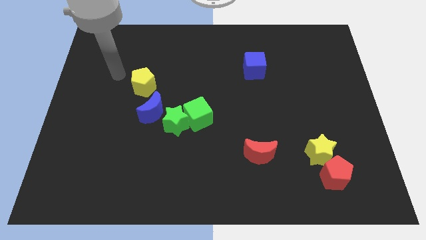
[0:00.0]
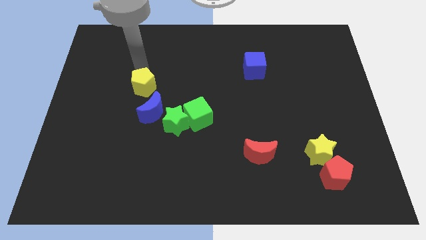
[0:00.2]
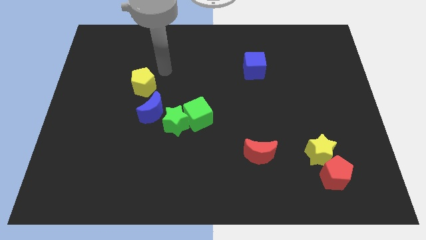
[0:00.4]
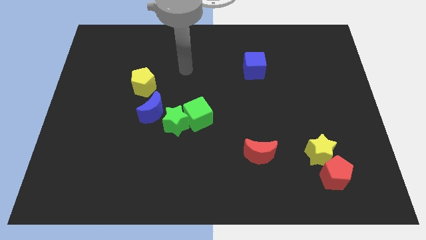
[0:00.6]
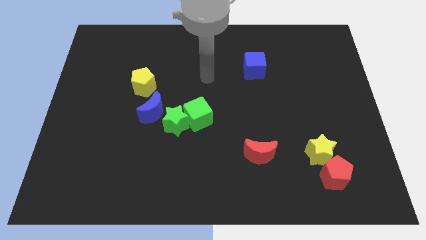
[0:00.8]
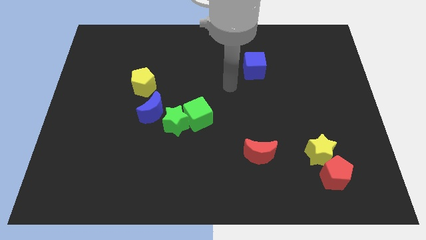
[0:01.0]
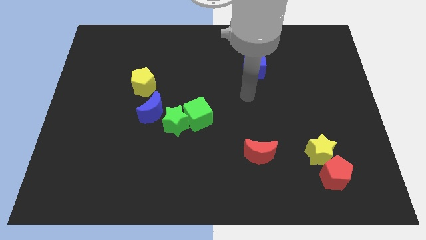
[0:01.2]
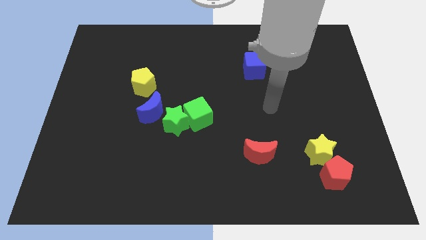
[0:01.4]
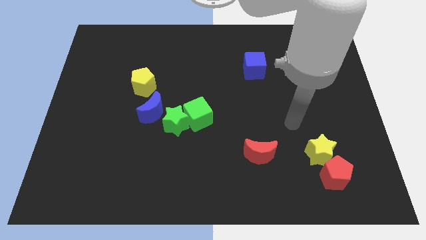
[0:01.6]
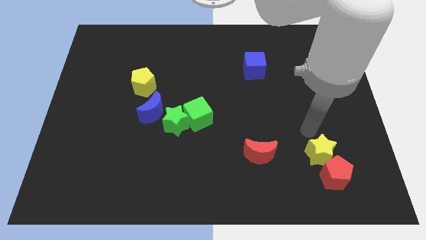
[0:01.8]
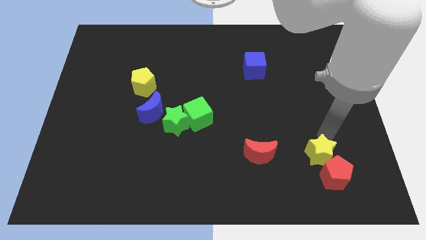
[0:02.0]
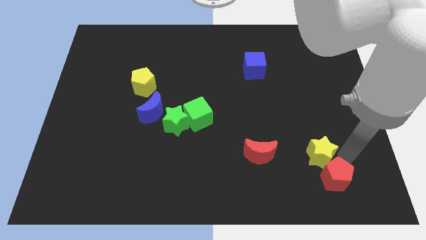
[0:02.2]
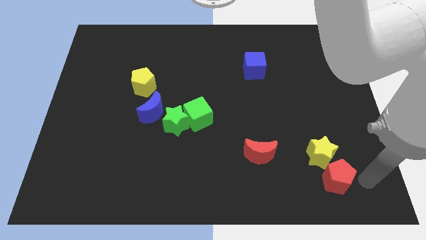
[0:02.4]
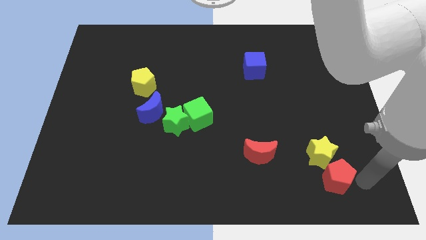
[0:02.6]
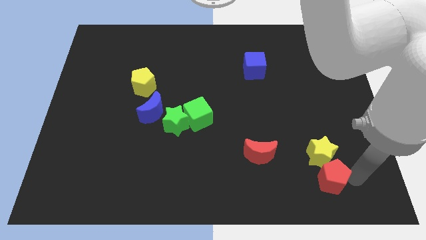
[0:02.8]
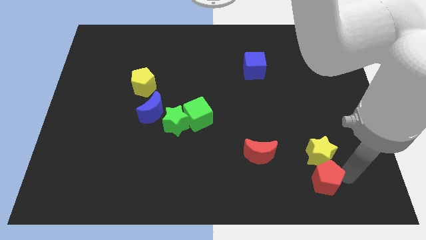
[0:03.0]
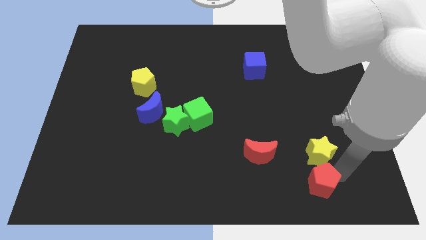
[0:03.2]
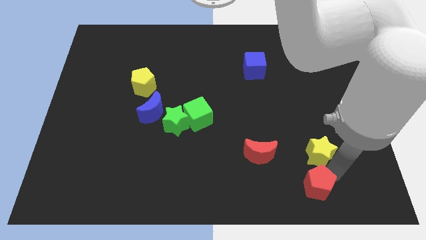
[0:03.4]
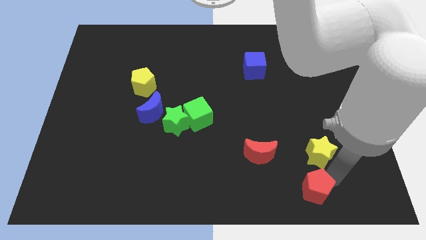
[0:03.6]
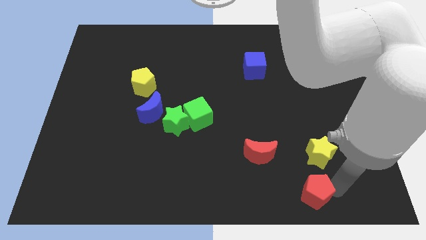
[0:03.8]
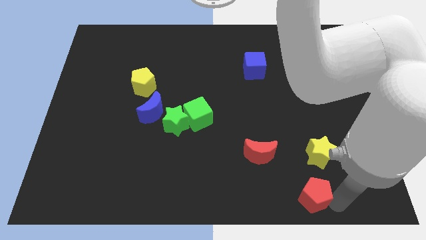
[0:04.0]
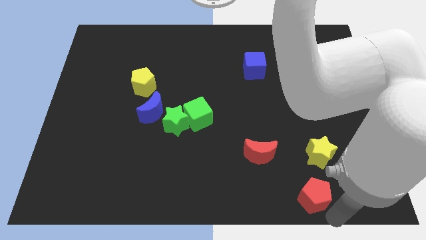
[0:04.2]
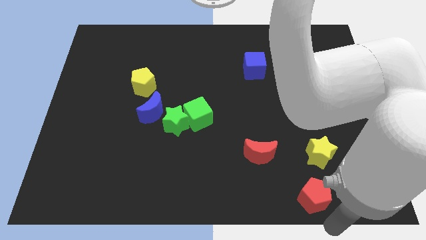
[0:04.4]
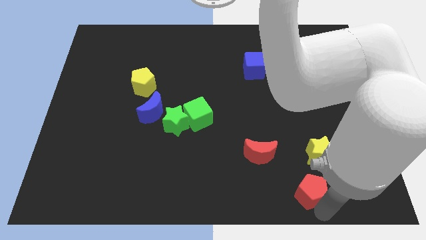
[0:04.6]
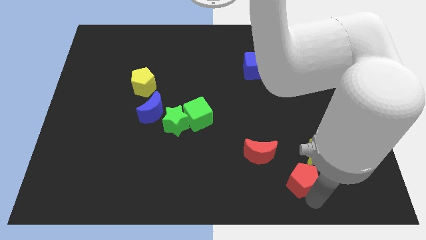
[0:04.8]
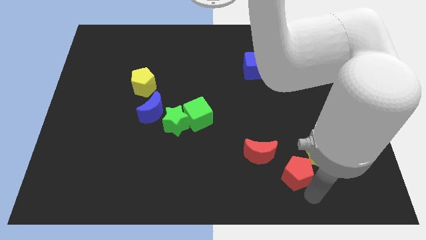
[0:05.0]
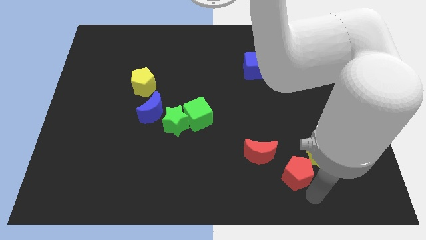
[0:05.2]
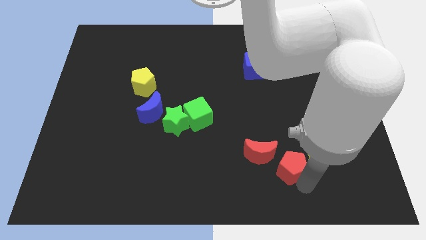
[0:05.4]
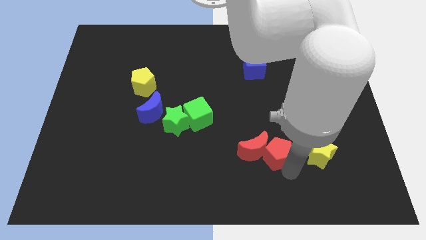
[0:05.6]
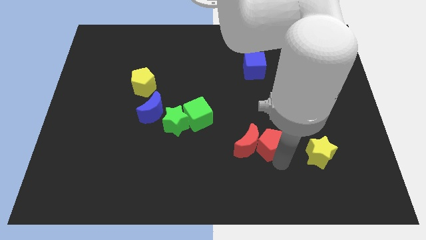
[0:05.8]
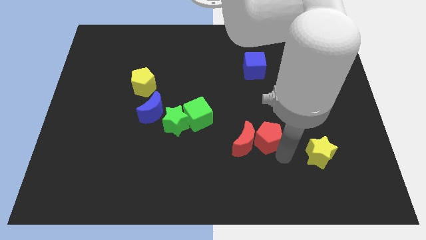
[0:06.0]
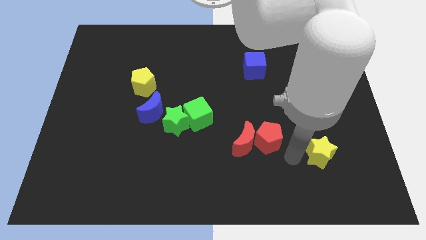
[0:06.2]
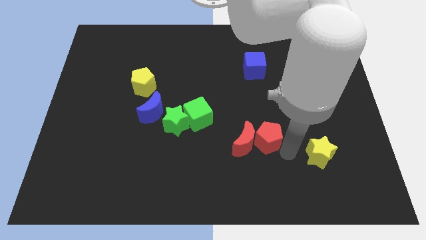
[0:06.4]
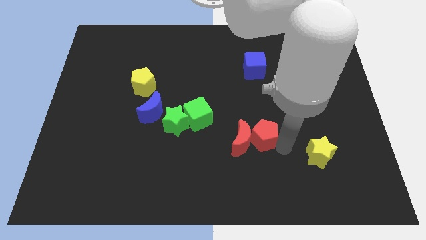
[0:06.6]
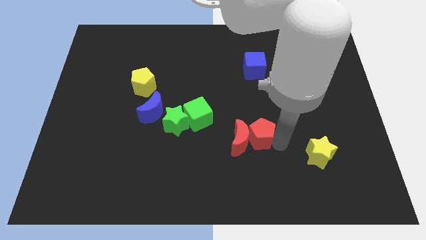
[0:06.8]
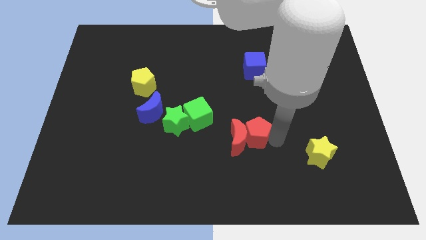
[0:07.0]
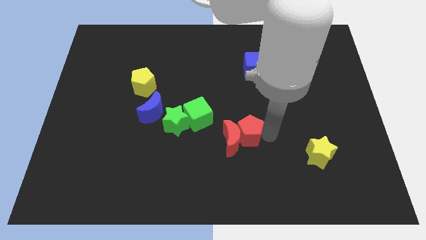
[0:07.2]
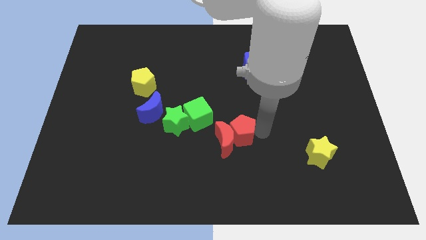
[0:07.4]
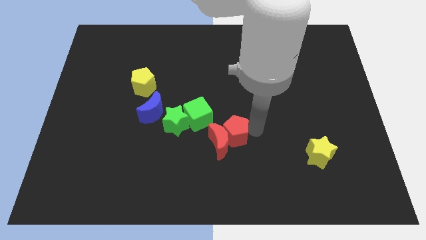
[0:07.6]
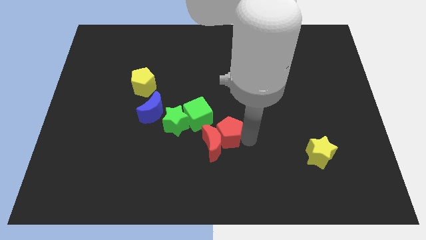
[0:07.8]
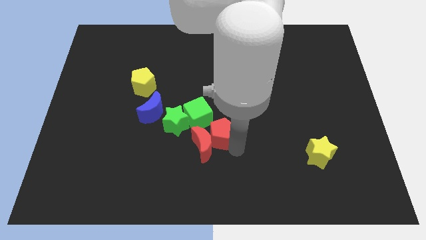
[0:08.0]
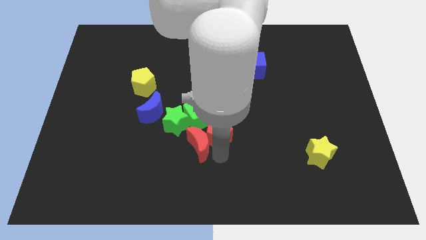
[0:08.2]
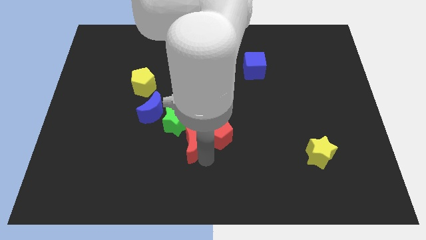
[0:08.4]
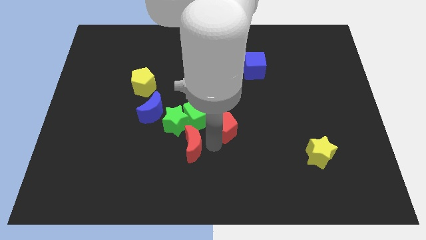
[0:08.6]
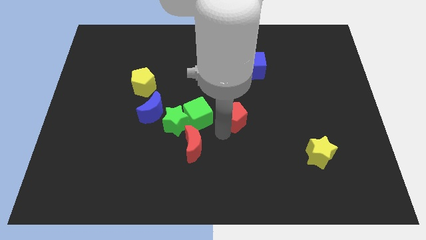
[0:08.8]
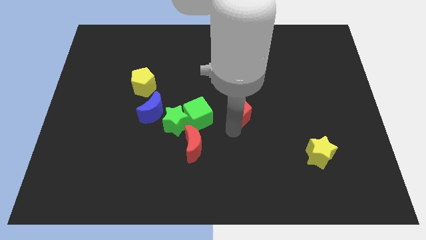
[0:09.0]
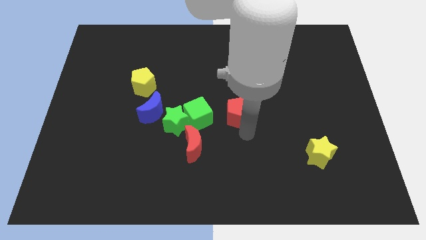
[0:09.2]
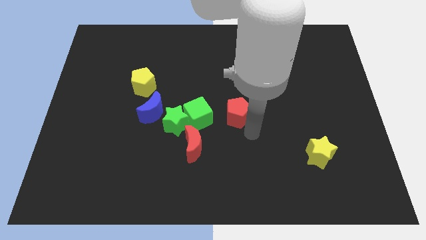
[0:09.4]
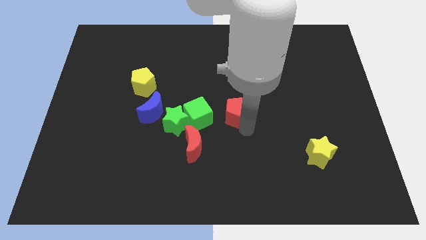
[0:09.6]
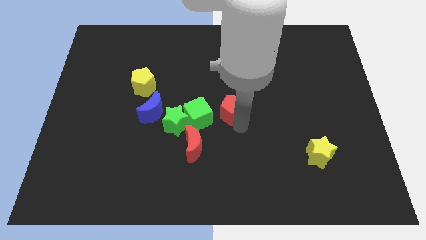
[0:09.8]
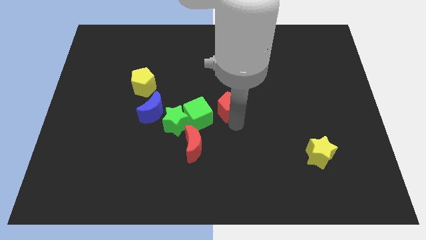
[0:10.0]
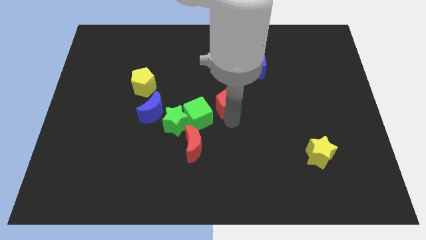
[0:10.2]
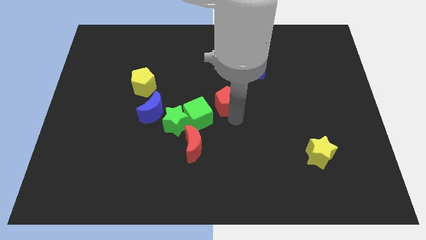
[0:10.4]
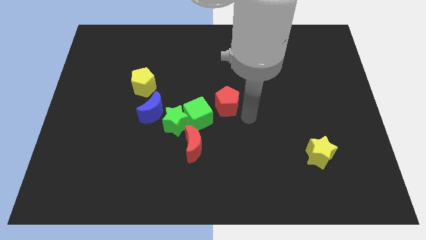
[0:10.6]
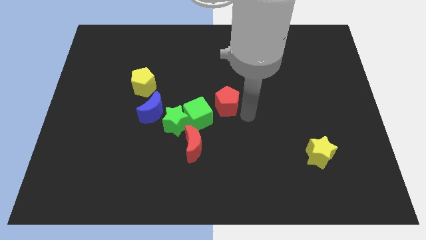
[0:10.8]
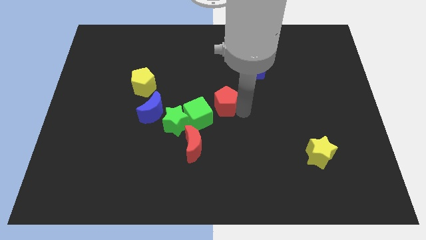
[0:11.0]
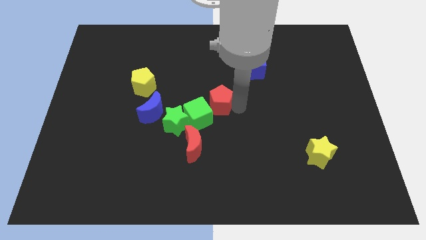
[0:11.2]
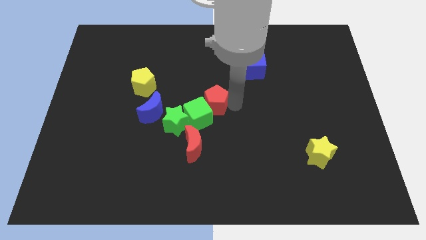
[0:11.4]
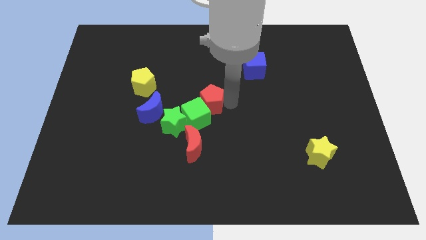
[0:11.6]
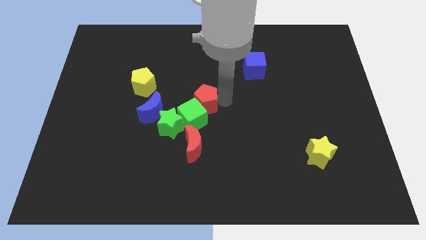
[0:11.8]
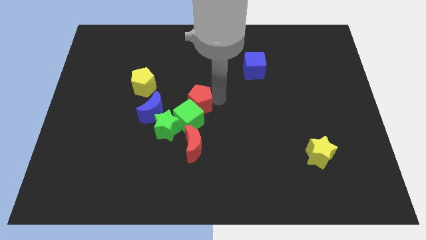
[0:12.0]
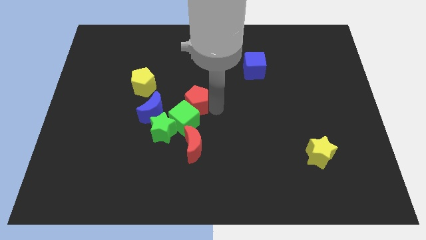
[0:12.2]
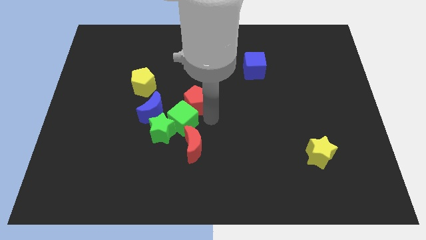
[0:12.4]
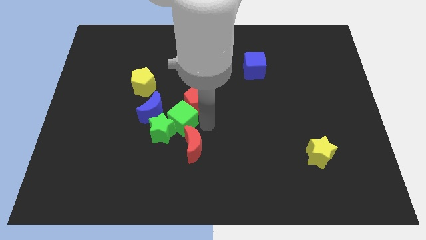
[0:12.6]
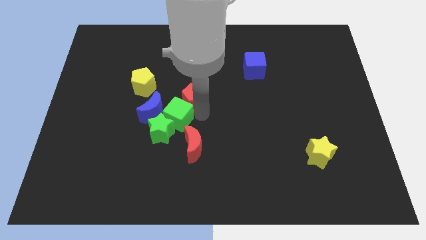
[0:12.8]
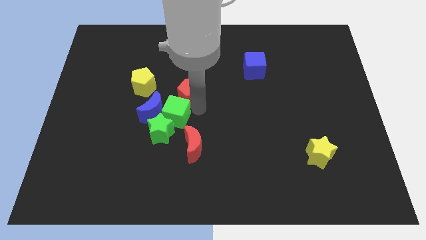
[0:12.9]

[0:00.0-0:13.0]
move the red pentagon just right of the yellow pentagon

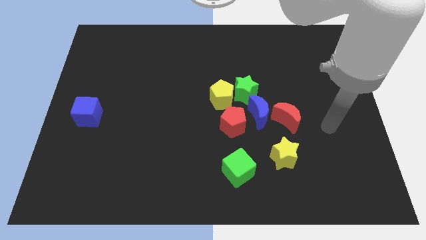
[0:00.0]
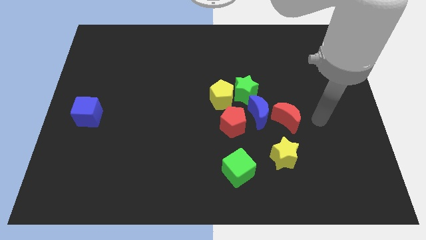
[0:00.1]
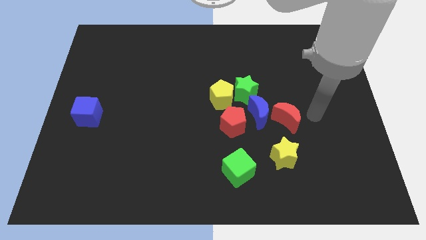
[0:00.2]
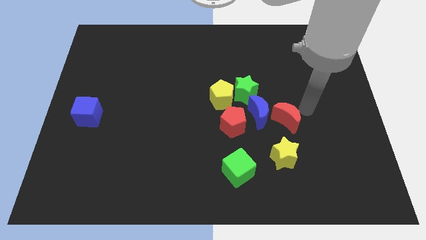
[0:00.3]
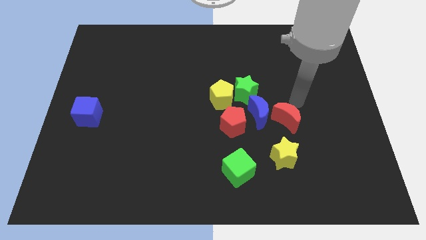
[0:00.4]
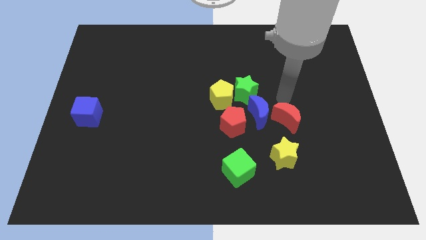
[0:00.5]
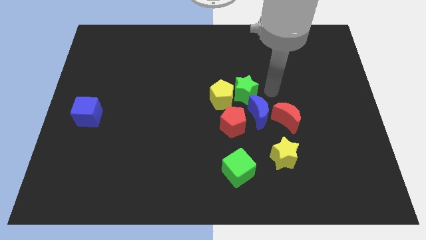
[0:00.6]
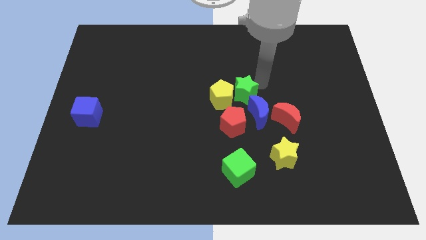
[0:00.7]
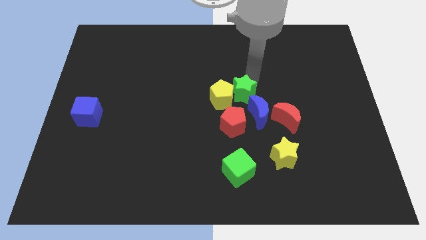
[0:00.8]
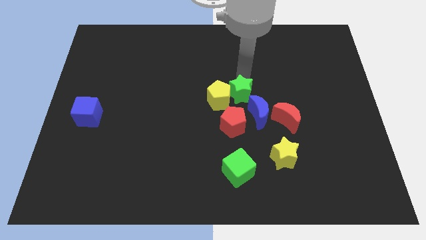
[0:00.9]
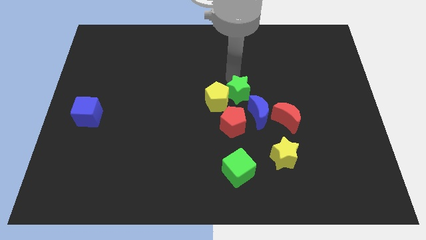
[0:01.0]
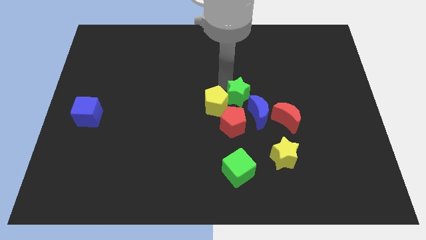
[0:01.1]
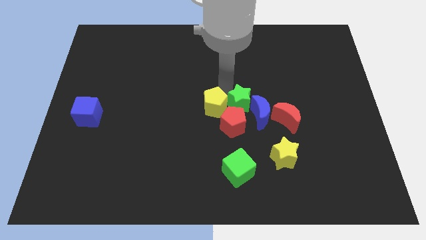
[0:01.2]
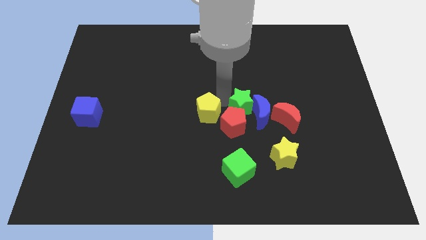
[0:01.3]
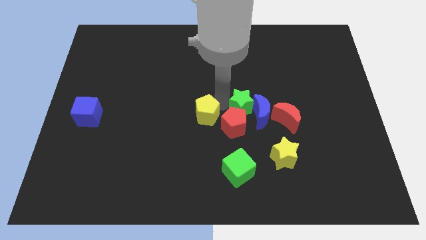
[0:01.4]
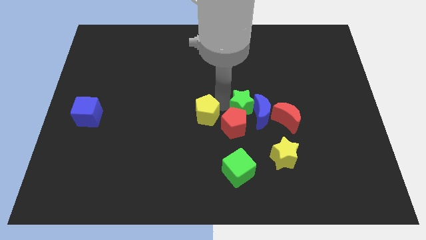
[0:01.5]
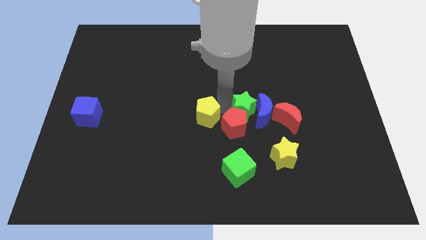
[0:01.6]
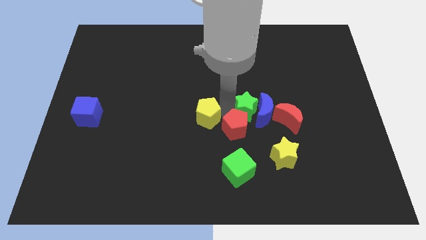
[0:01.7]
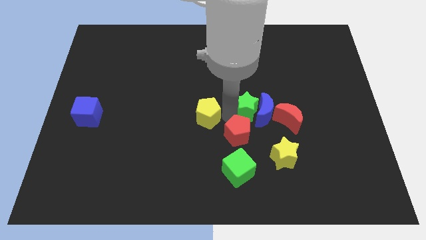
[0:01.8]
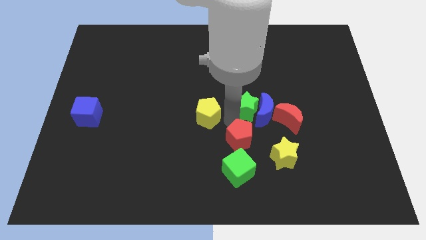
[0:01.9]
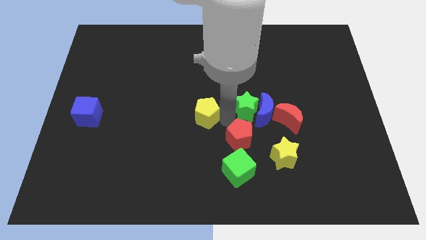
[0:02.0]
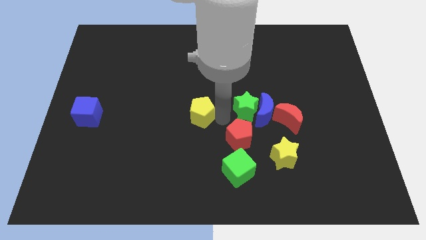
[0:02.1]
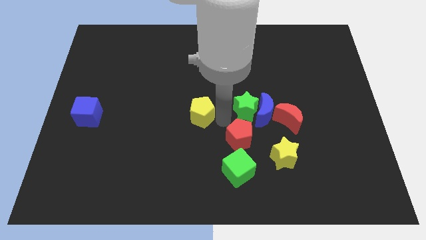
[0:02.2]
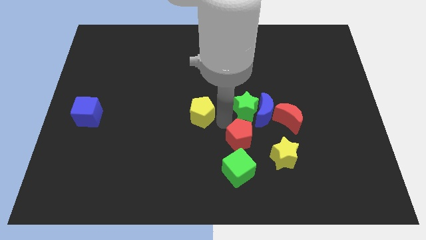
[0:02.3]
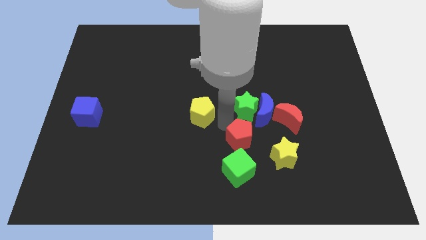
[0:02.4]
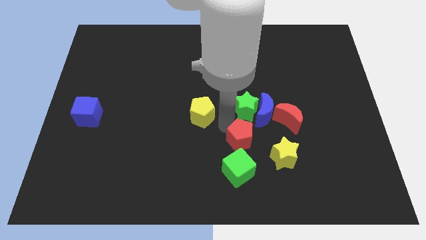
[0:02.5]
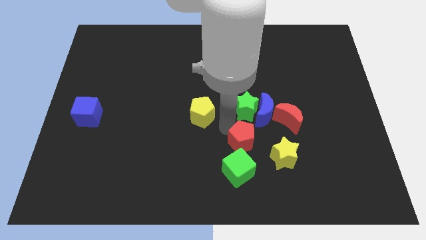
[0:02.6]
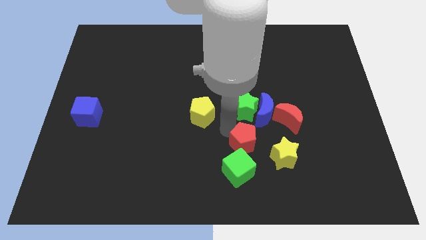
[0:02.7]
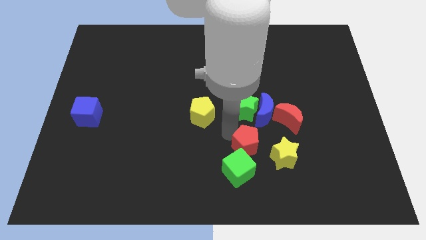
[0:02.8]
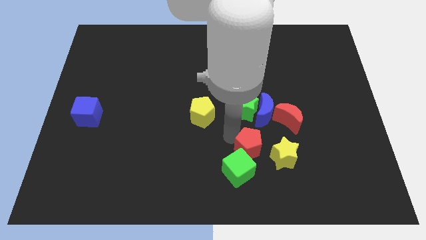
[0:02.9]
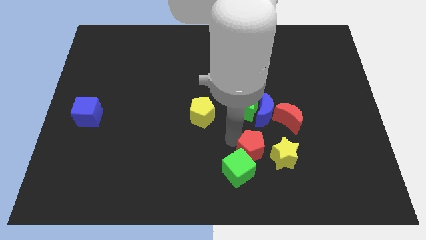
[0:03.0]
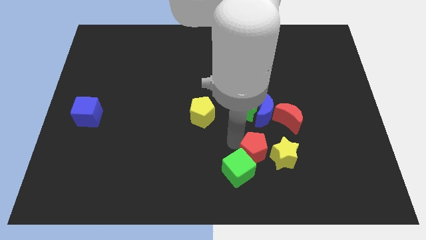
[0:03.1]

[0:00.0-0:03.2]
put the red pentagon right of the green cube
